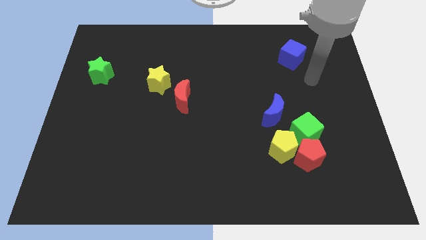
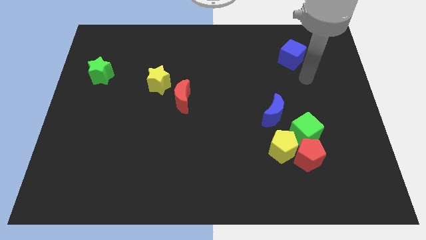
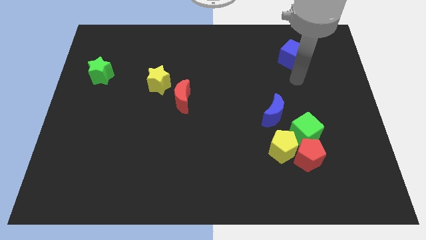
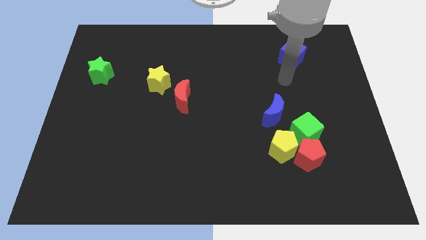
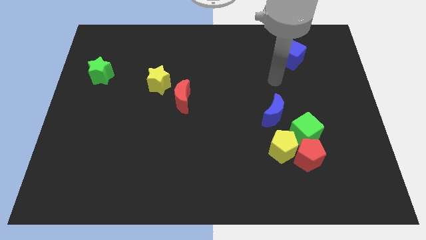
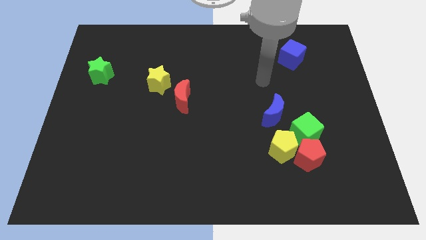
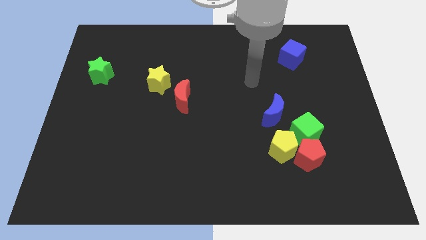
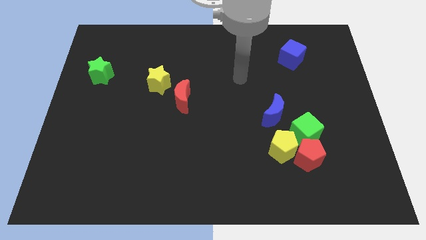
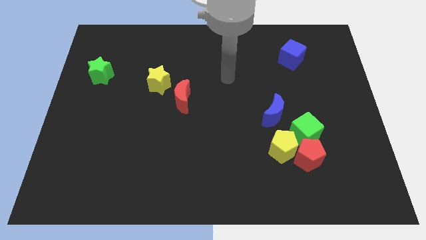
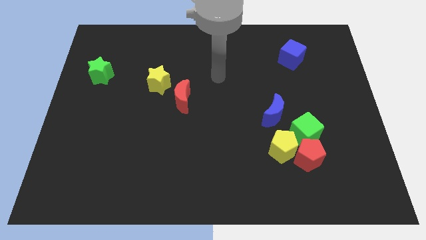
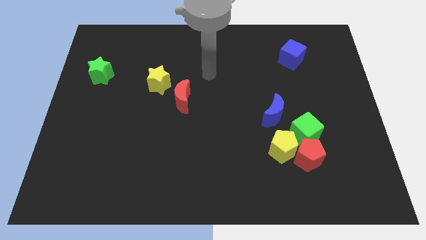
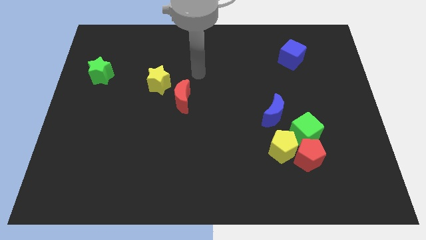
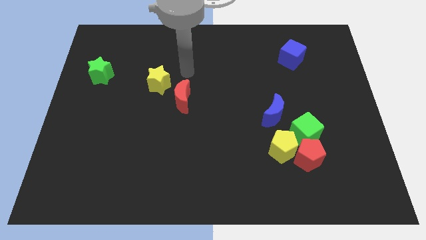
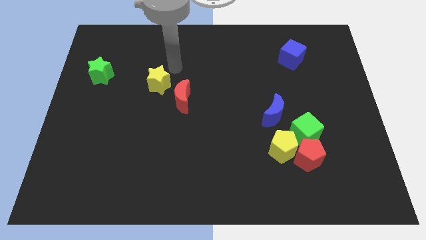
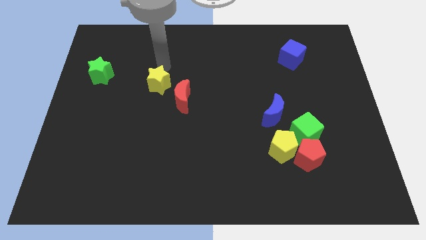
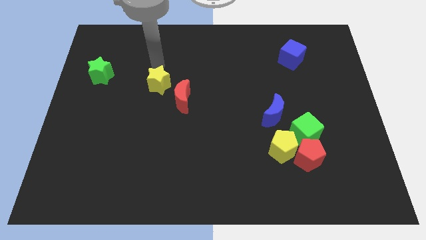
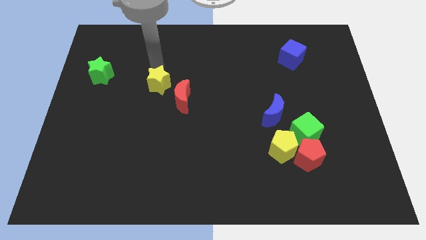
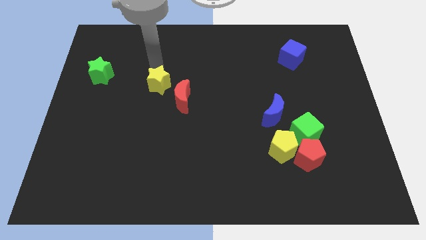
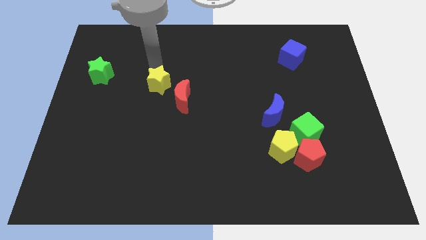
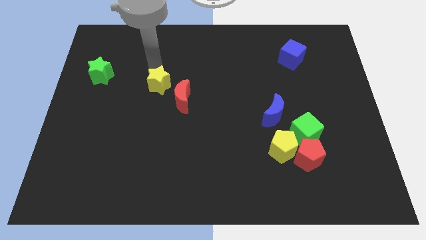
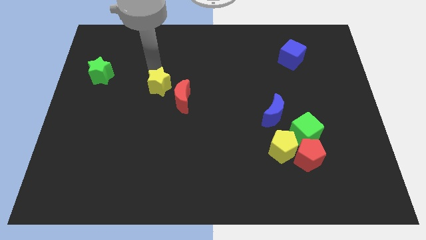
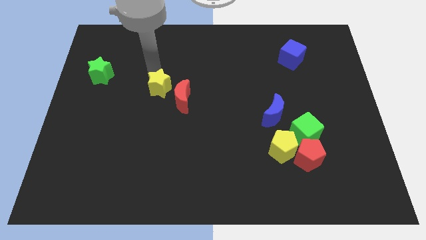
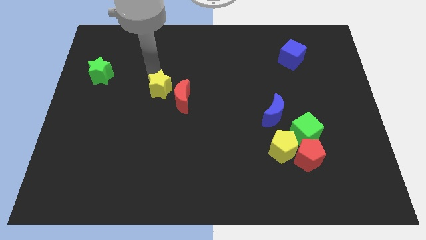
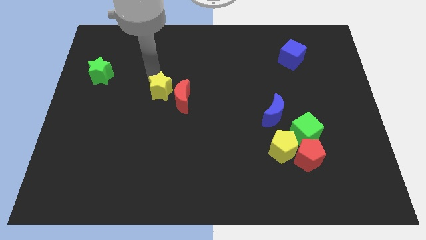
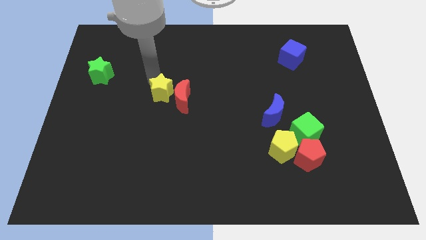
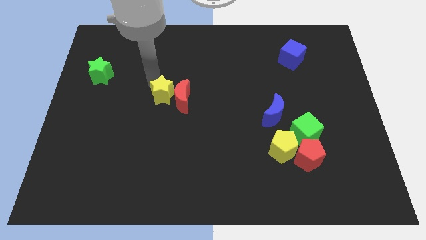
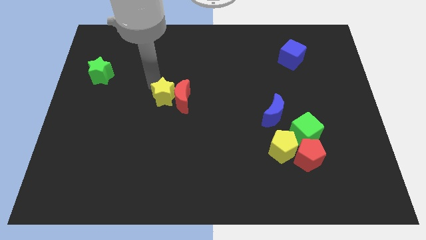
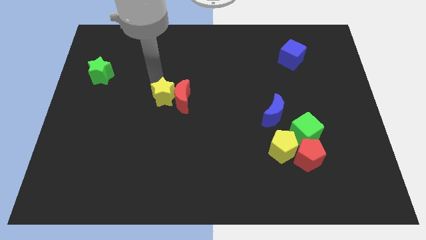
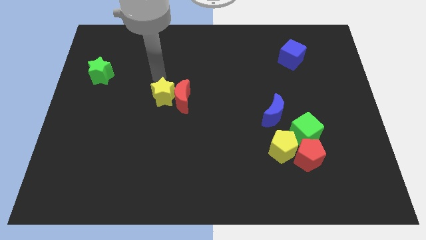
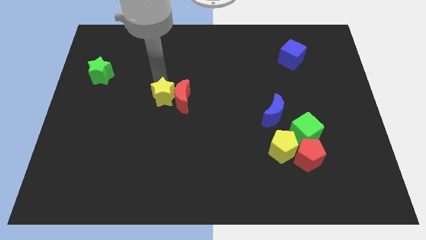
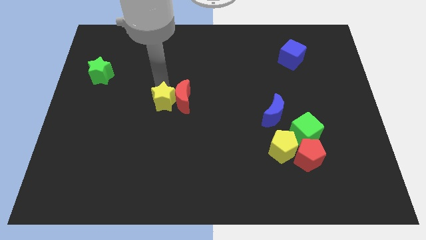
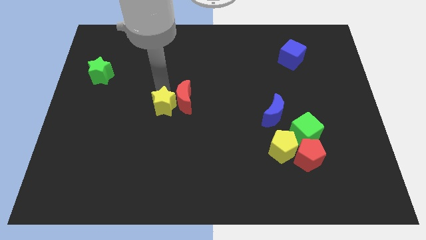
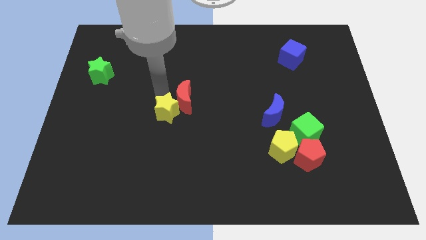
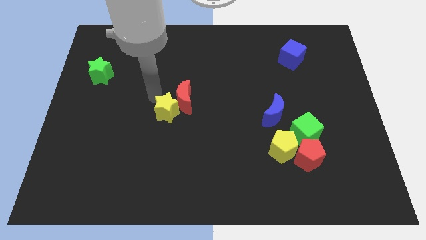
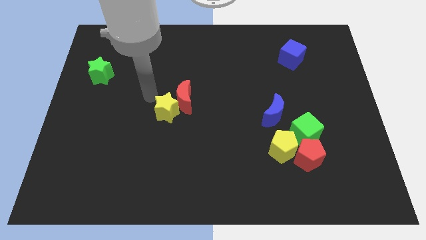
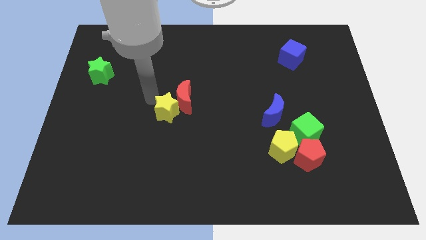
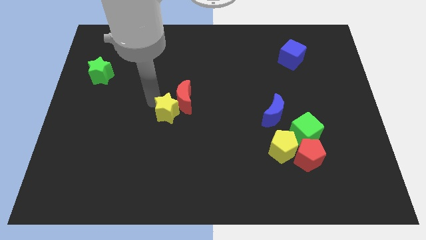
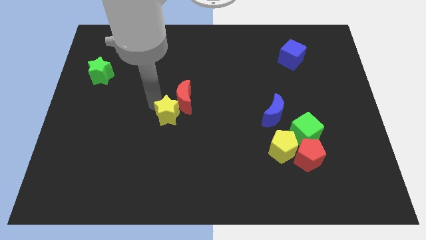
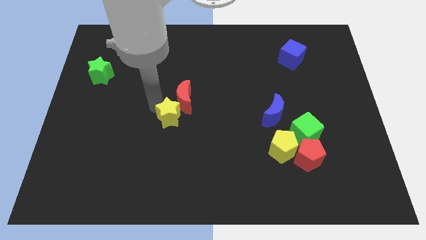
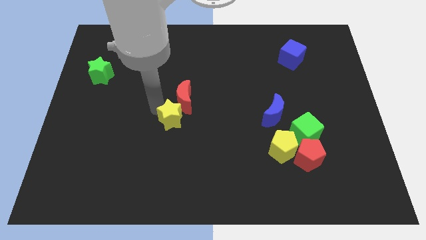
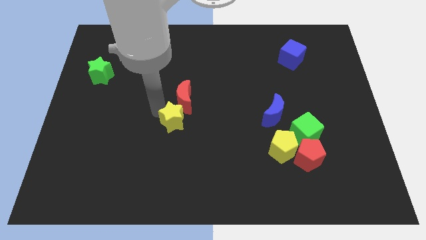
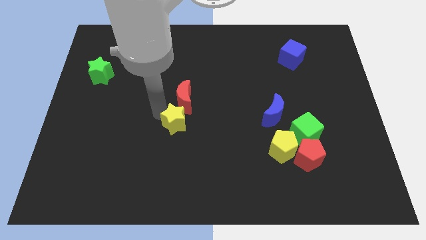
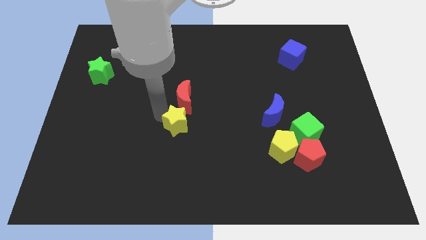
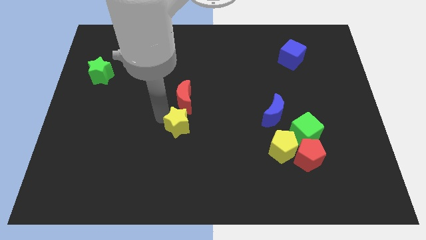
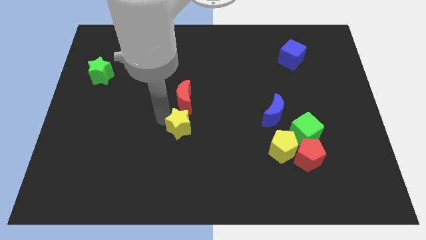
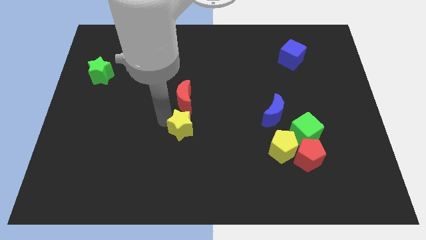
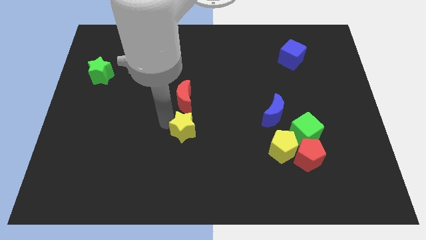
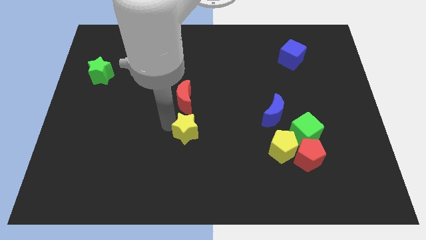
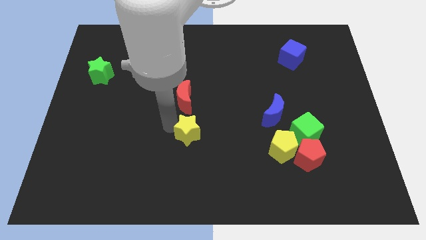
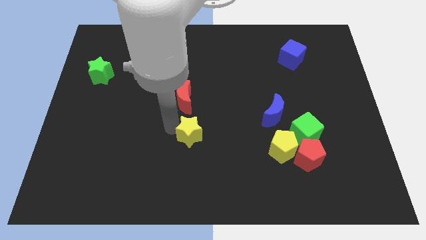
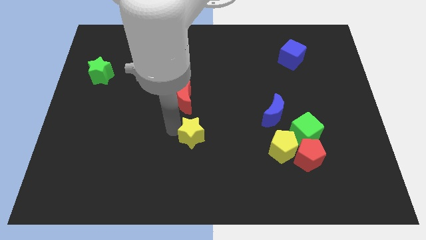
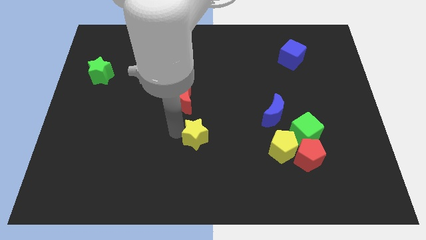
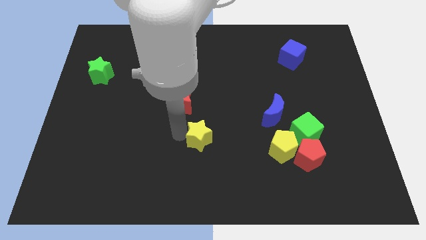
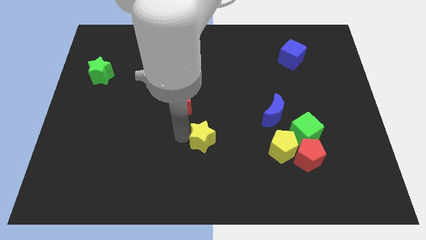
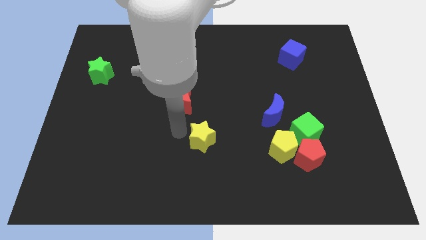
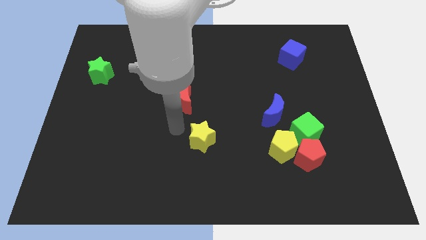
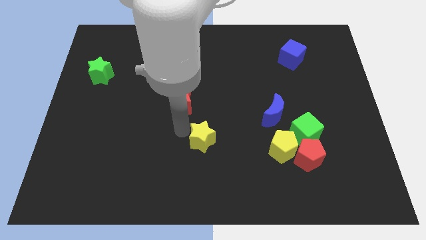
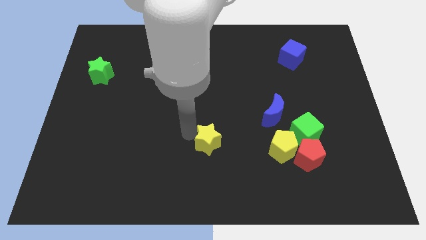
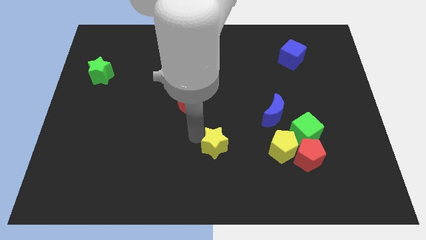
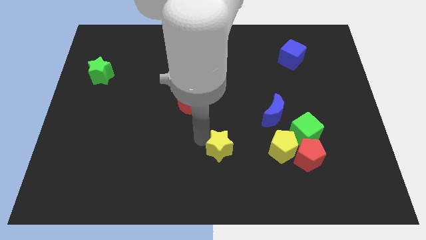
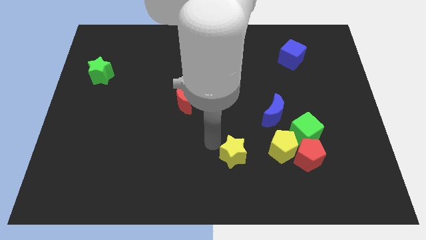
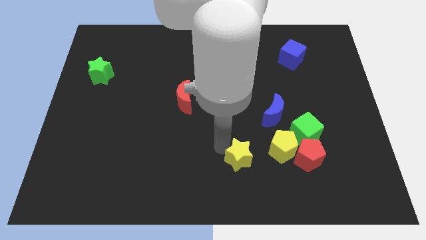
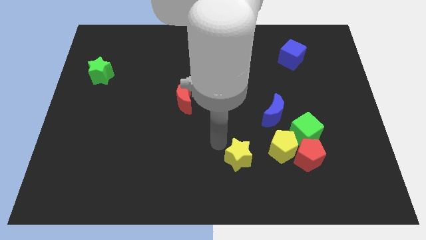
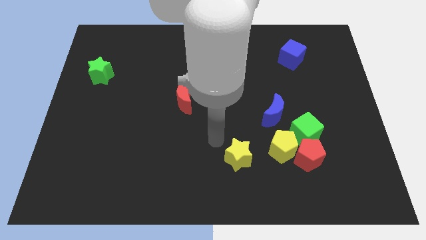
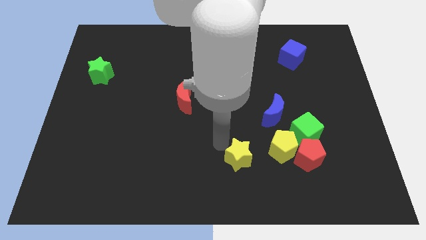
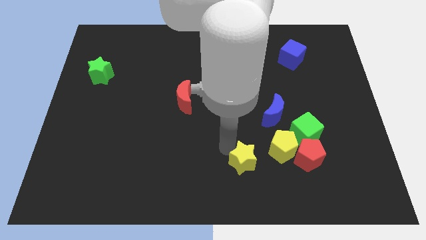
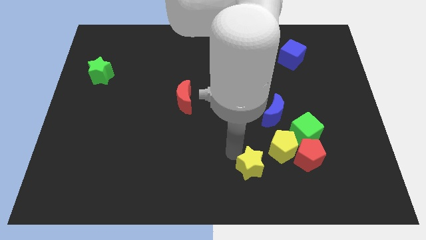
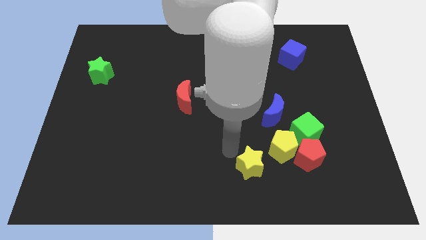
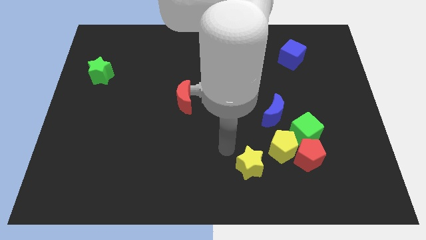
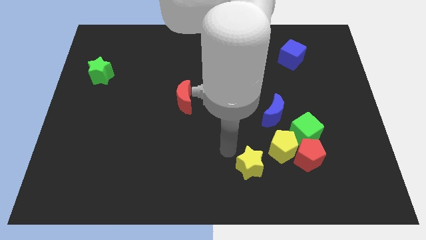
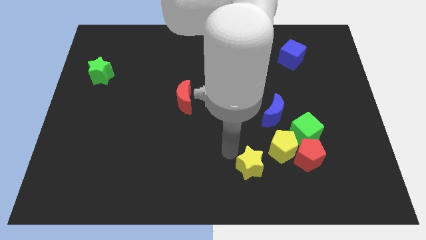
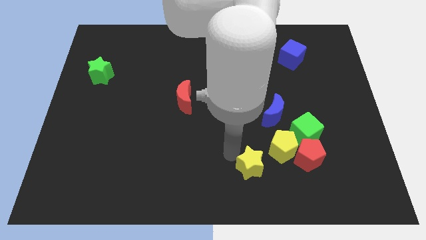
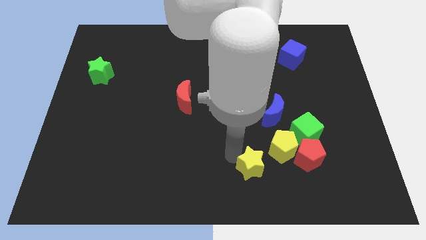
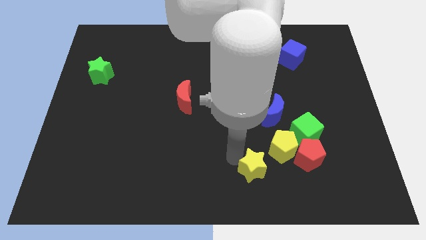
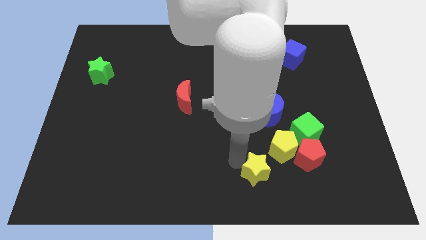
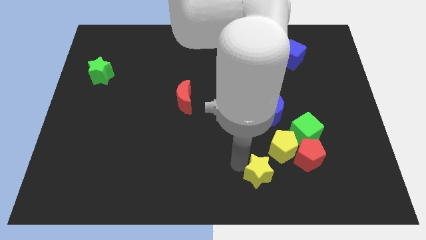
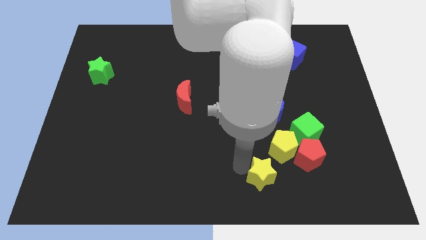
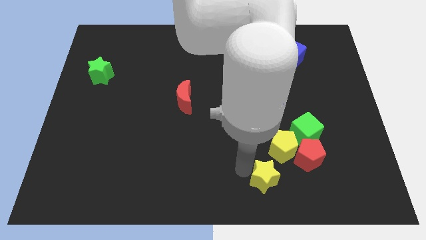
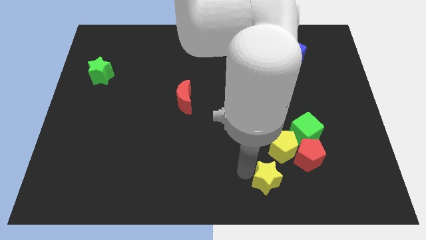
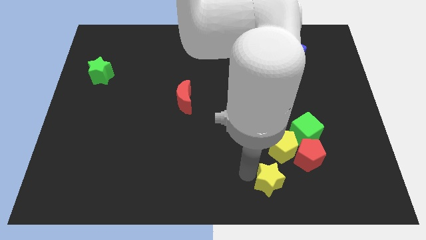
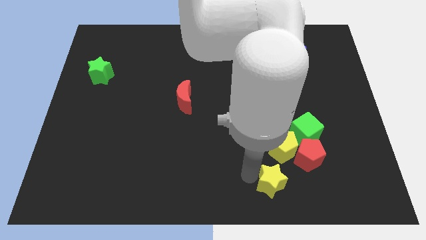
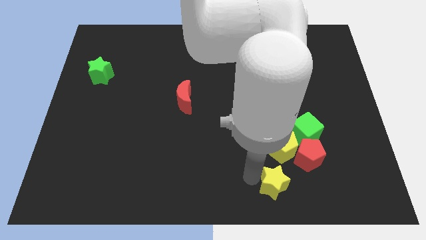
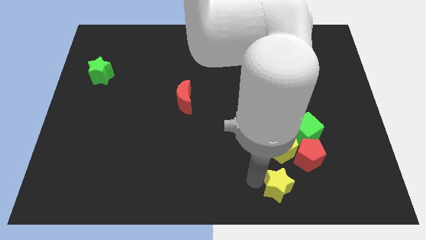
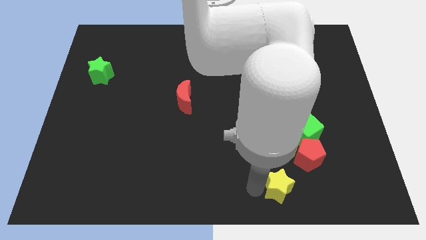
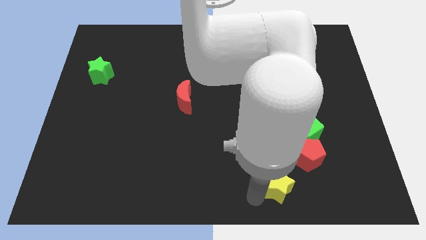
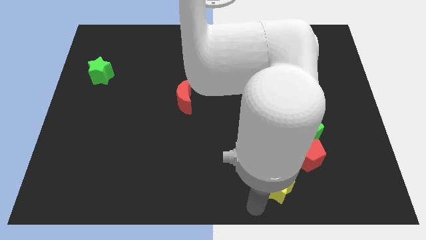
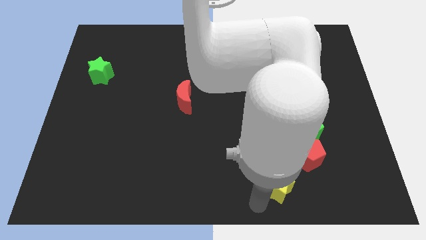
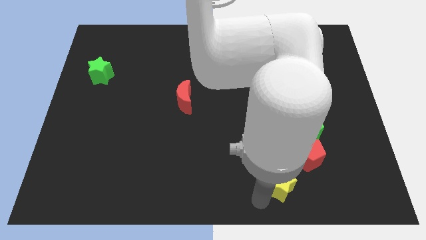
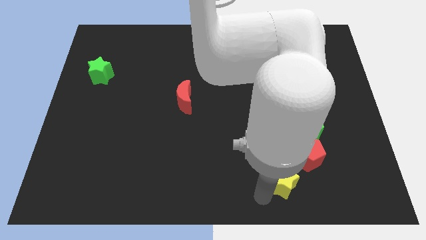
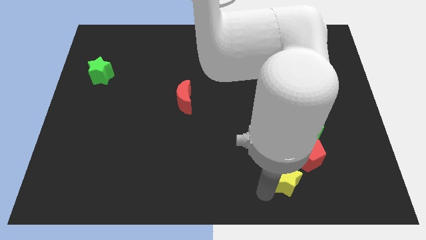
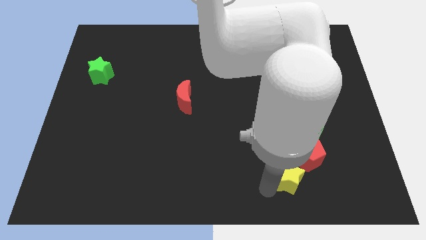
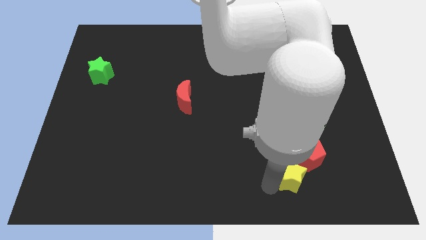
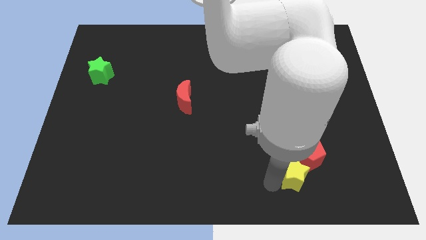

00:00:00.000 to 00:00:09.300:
move the yellow star to the red pentagon
